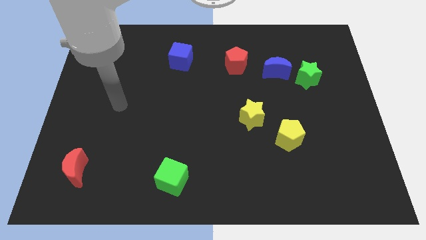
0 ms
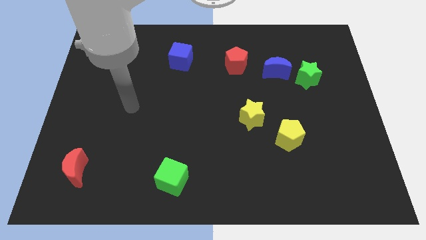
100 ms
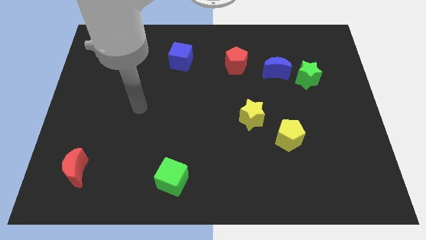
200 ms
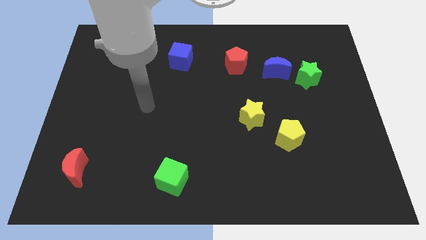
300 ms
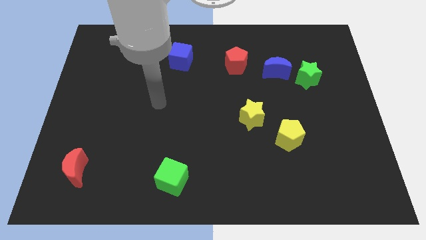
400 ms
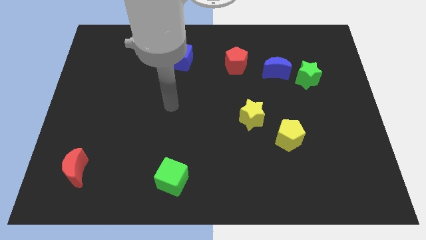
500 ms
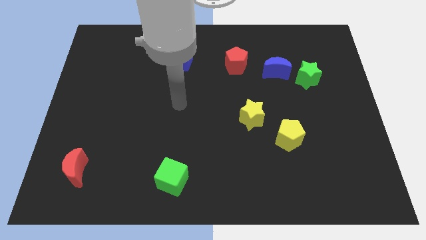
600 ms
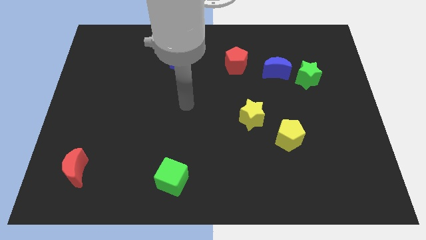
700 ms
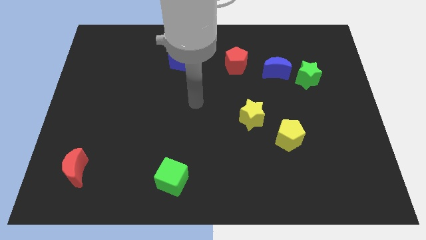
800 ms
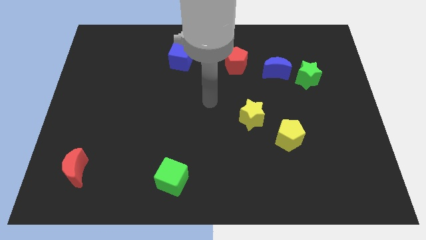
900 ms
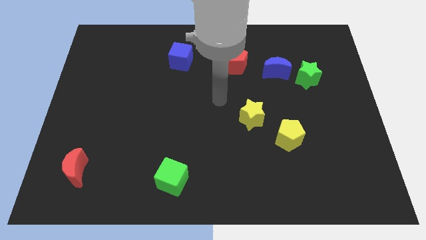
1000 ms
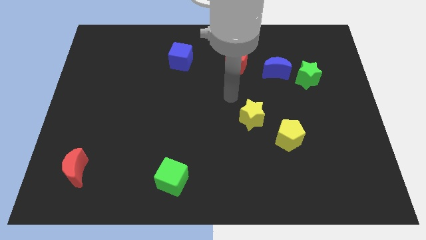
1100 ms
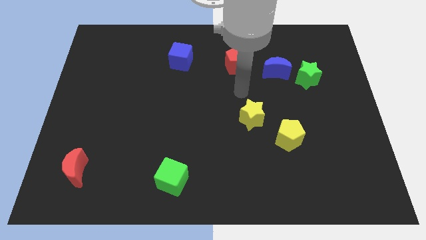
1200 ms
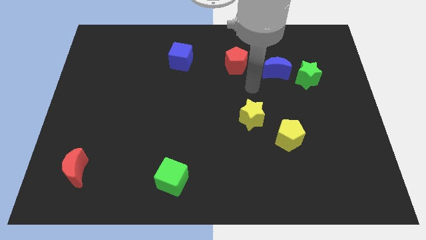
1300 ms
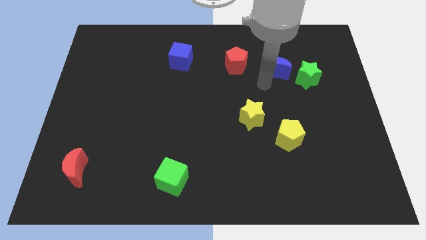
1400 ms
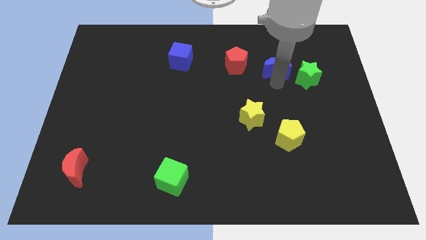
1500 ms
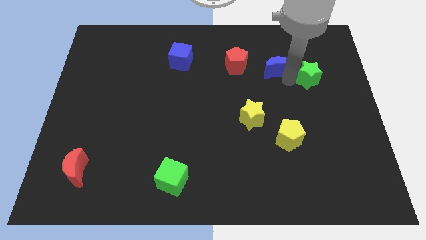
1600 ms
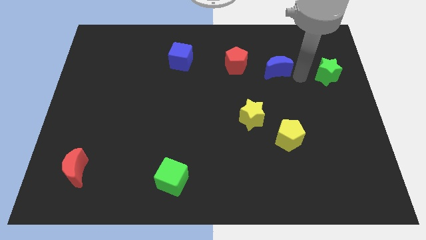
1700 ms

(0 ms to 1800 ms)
separate the blue moon from the green star

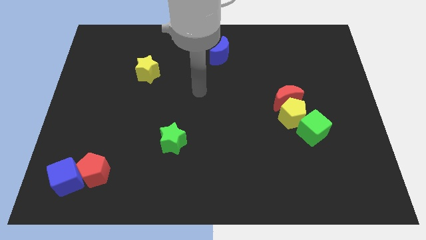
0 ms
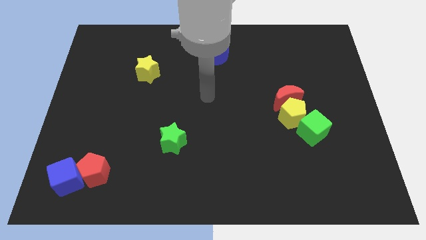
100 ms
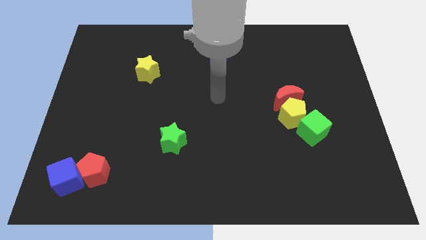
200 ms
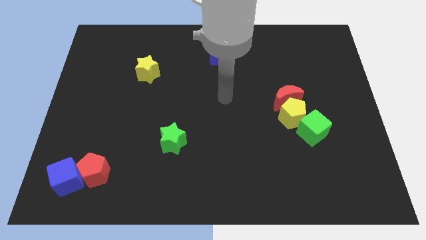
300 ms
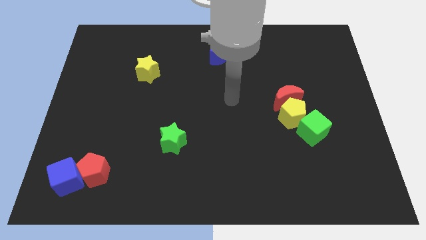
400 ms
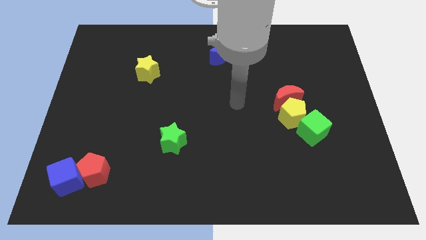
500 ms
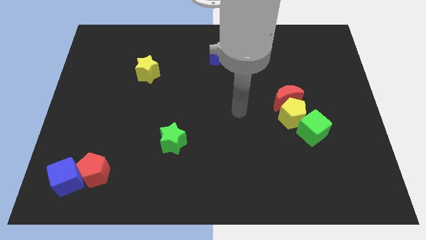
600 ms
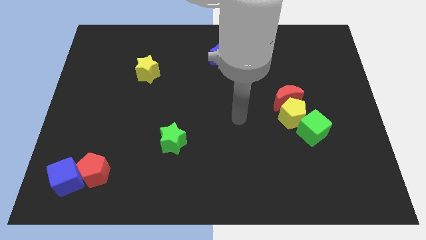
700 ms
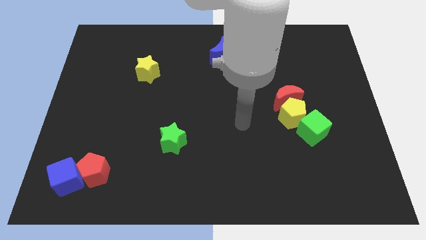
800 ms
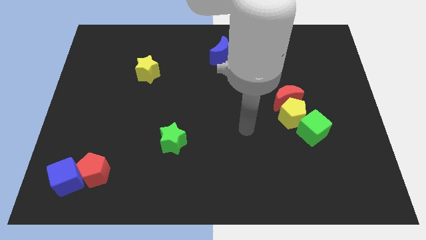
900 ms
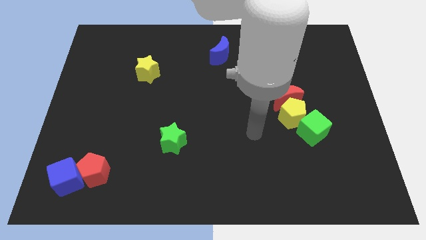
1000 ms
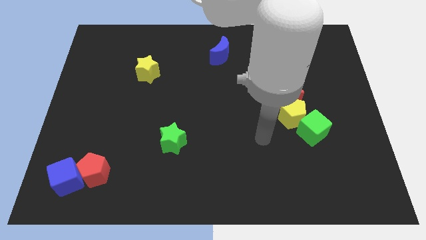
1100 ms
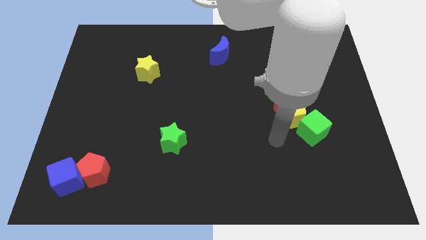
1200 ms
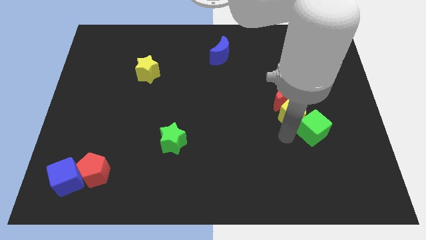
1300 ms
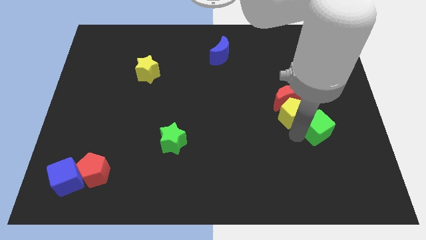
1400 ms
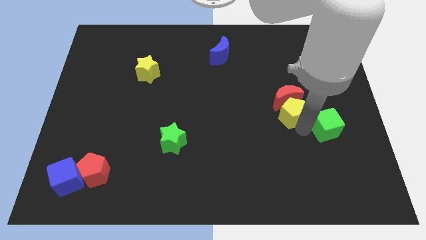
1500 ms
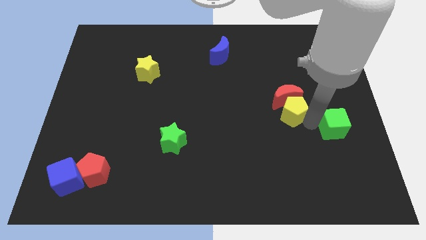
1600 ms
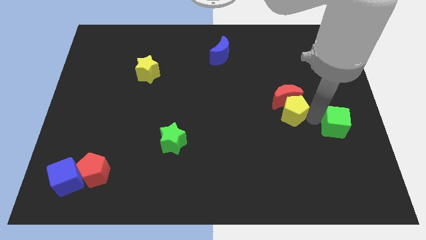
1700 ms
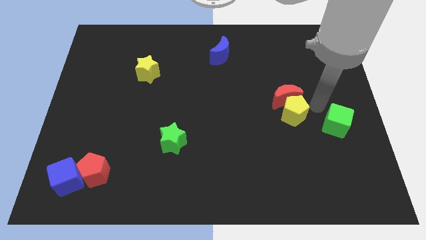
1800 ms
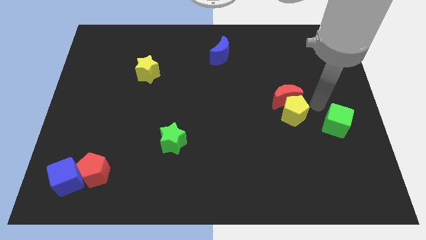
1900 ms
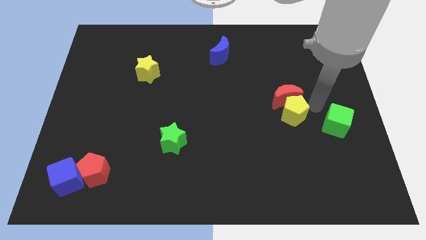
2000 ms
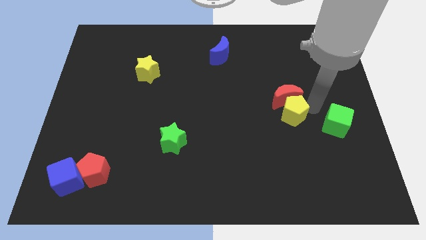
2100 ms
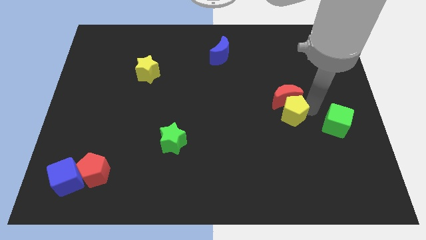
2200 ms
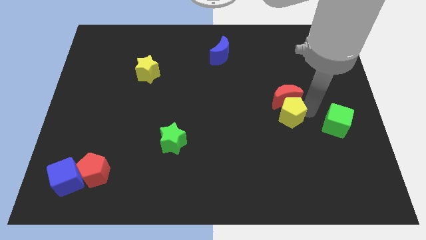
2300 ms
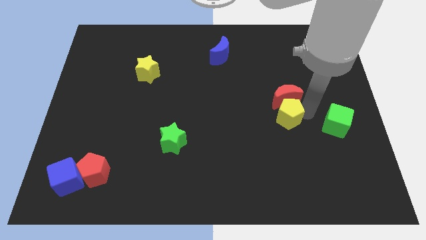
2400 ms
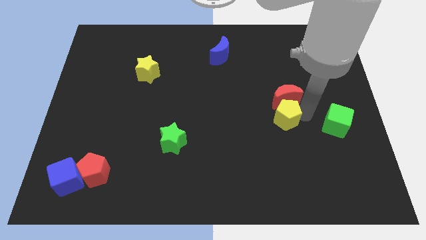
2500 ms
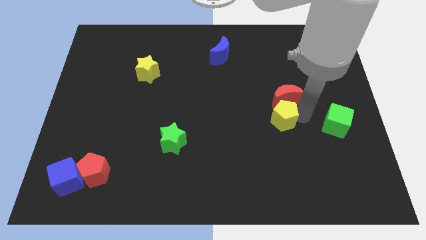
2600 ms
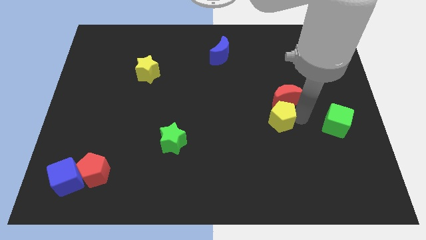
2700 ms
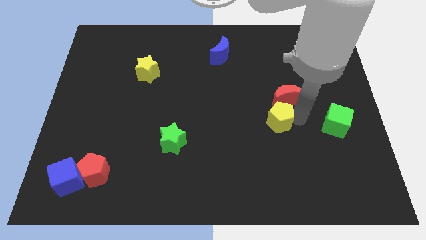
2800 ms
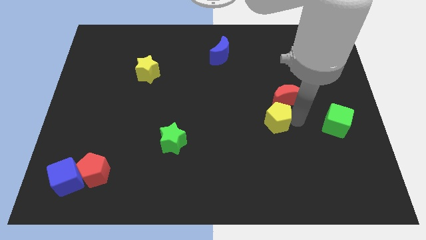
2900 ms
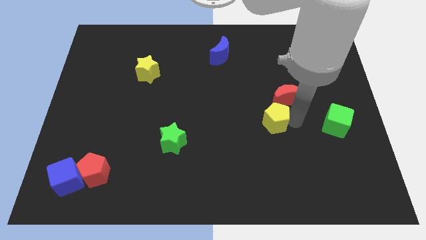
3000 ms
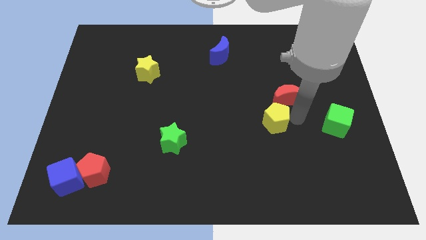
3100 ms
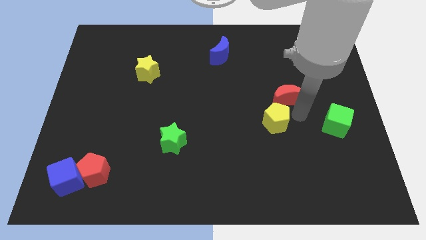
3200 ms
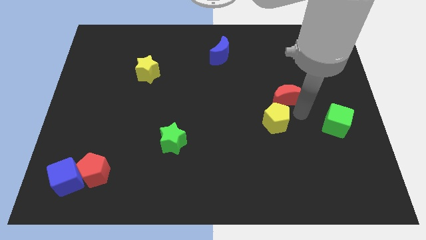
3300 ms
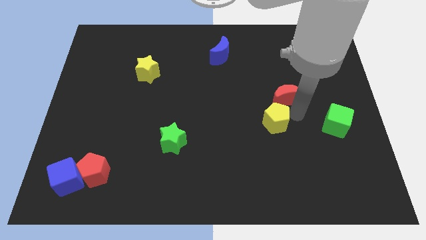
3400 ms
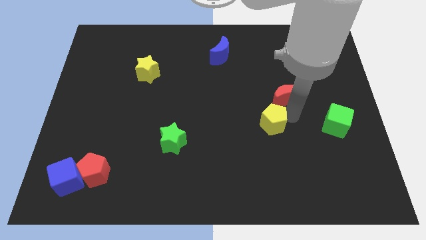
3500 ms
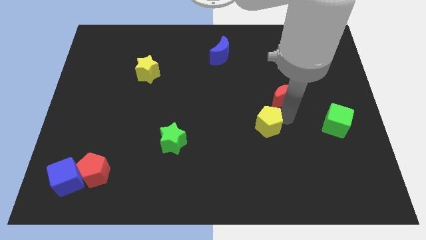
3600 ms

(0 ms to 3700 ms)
separate the yellow pentagon from the red moon and green cube

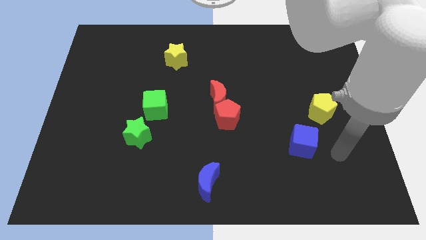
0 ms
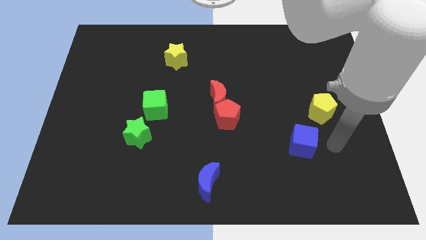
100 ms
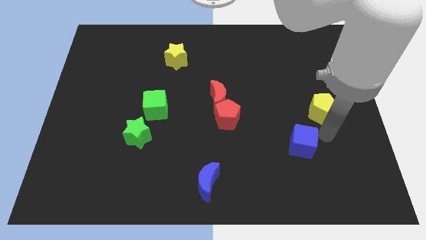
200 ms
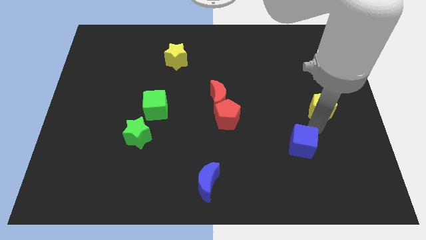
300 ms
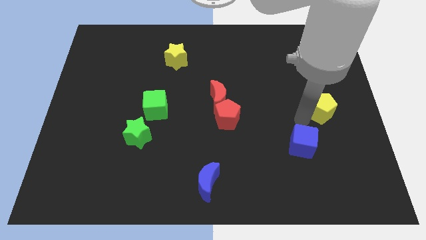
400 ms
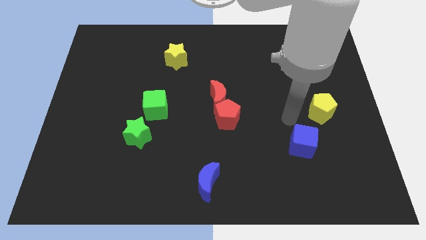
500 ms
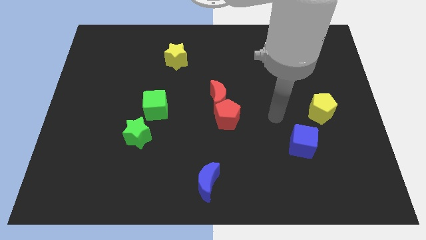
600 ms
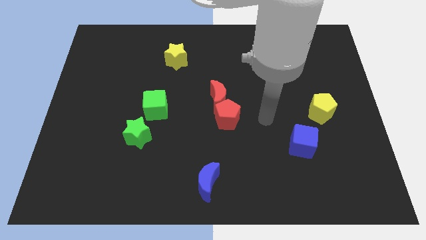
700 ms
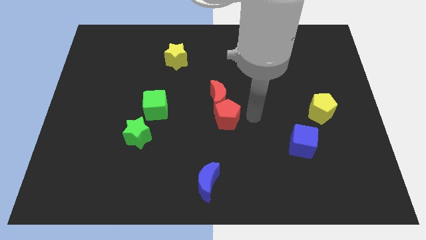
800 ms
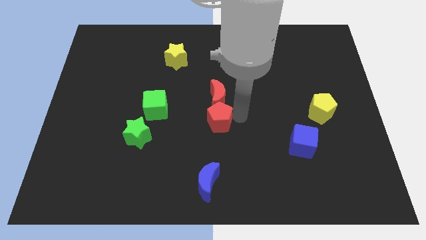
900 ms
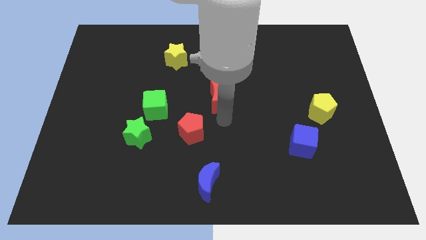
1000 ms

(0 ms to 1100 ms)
pull the red moon apart from the red pentagon

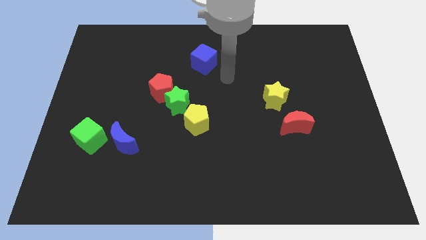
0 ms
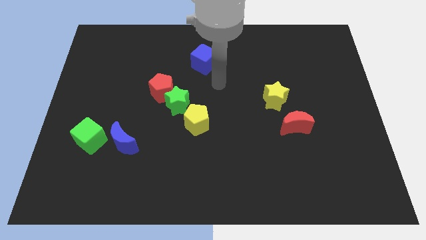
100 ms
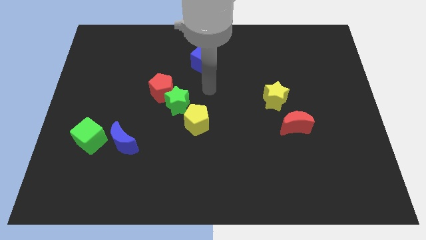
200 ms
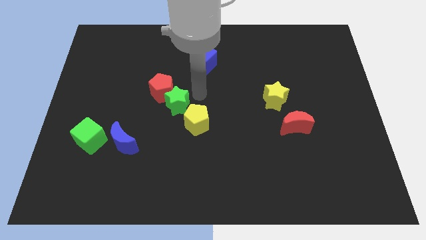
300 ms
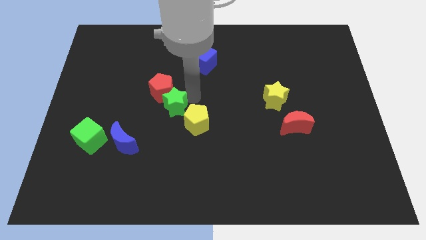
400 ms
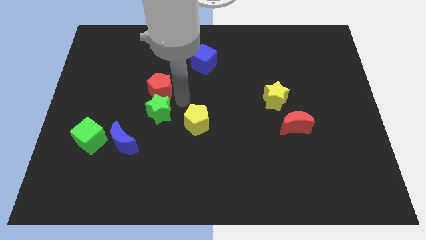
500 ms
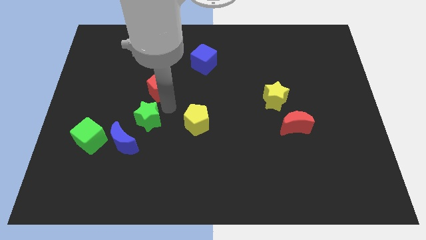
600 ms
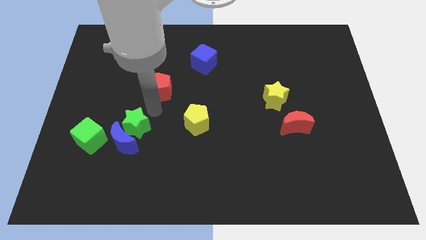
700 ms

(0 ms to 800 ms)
move the red pentagon away from the green star

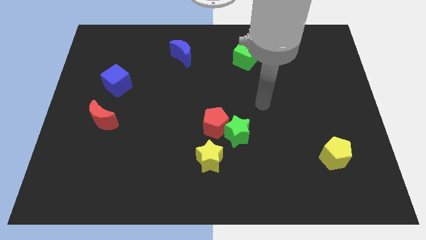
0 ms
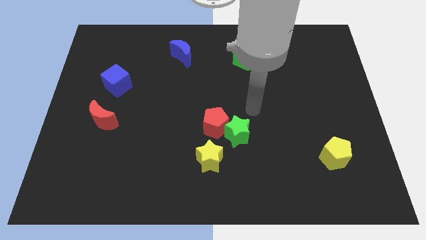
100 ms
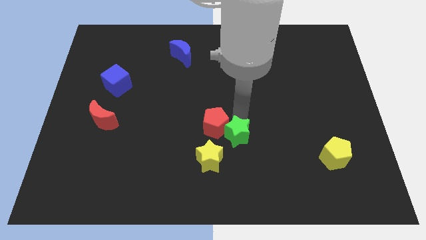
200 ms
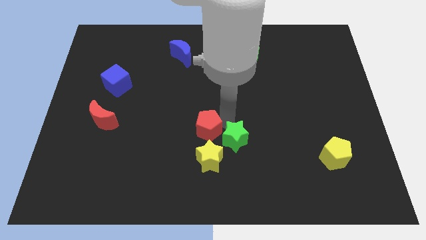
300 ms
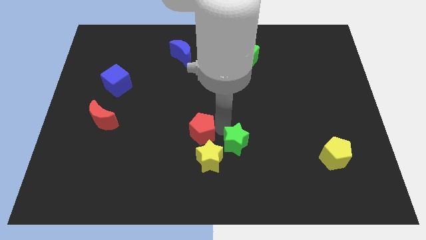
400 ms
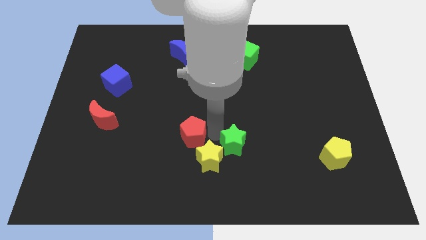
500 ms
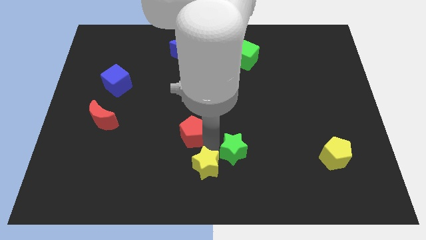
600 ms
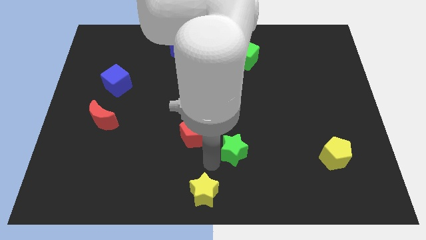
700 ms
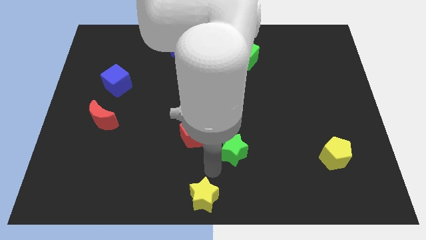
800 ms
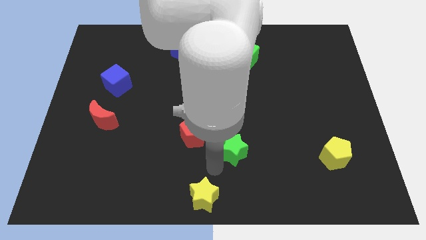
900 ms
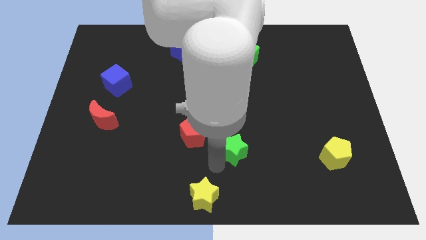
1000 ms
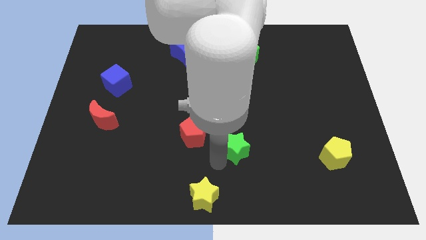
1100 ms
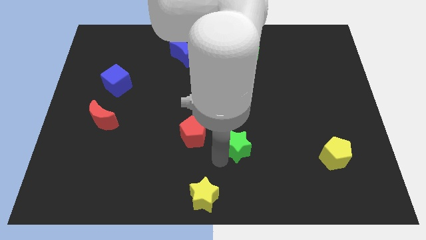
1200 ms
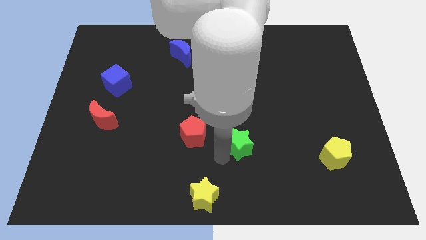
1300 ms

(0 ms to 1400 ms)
move the green star away from the red pentagon and yellow star

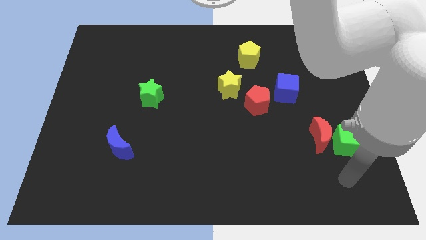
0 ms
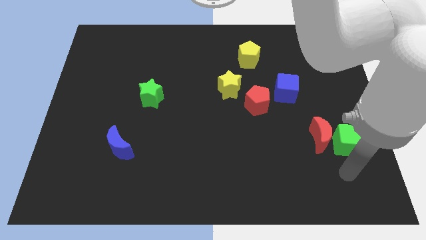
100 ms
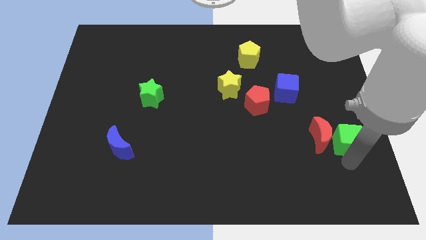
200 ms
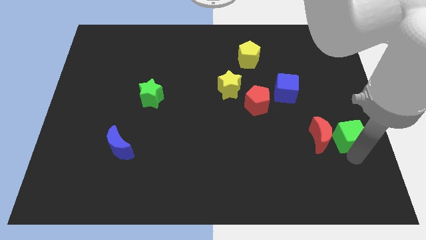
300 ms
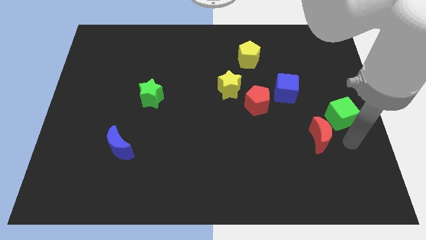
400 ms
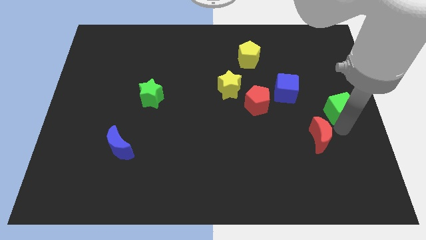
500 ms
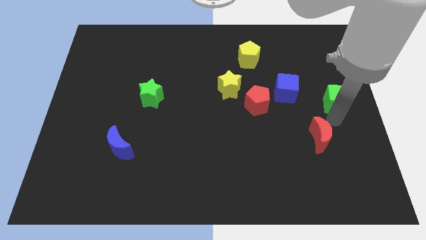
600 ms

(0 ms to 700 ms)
move the red moon away from the green cube
